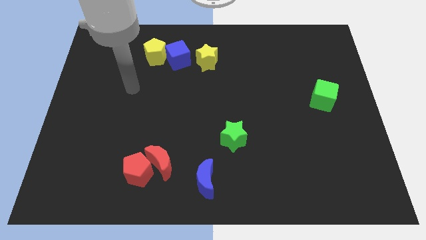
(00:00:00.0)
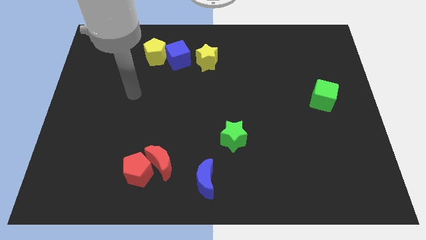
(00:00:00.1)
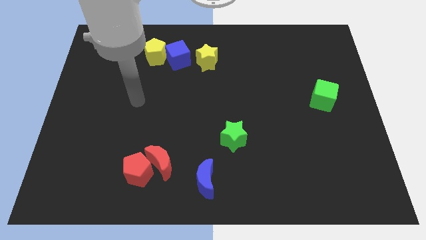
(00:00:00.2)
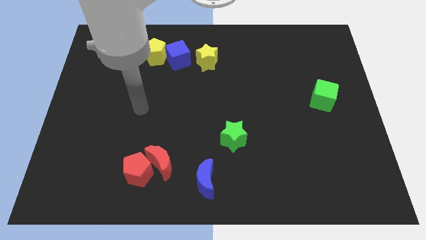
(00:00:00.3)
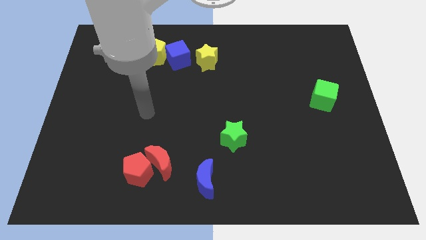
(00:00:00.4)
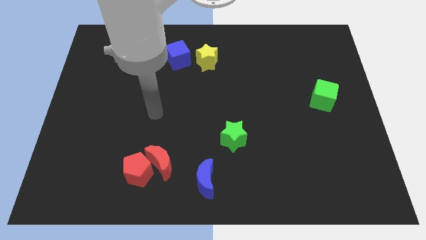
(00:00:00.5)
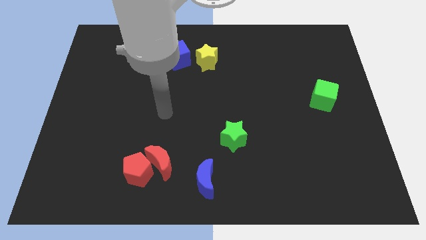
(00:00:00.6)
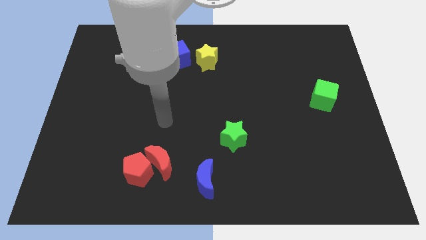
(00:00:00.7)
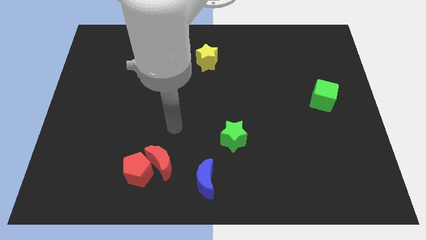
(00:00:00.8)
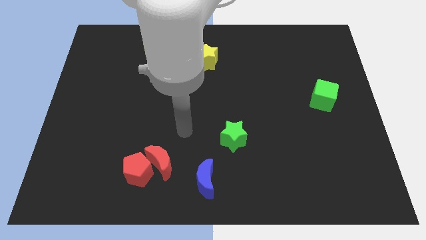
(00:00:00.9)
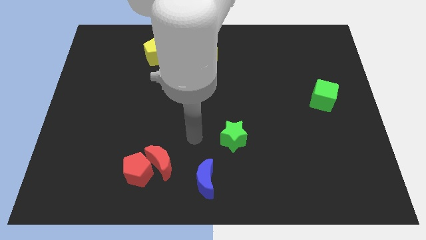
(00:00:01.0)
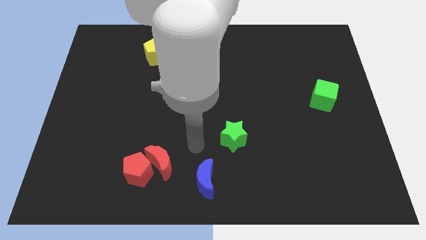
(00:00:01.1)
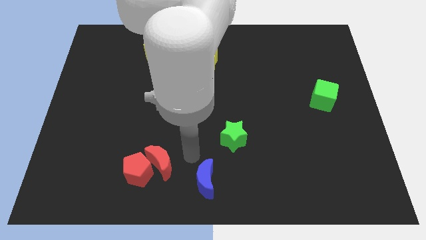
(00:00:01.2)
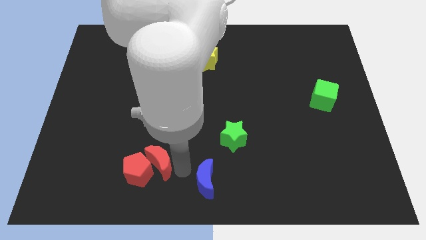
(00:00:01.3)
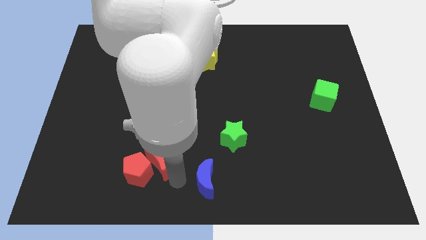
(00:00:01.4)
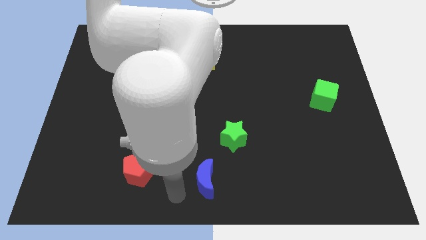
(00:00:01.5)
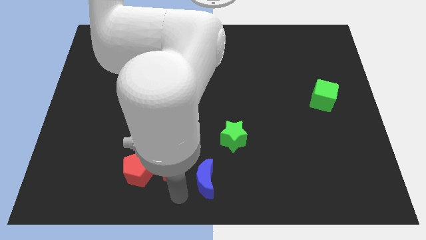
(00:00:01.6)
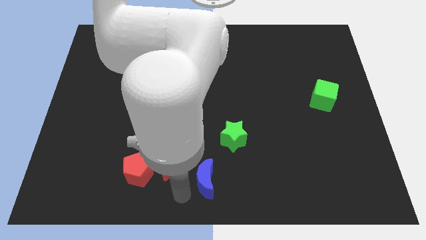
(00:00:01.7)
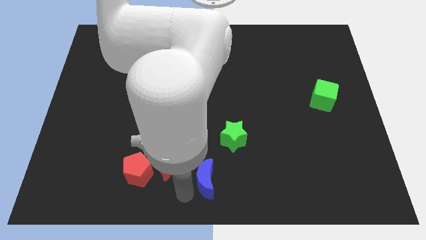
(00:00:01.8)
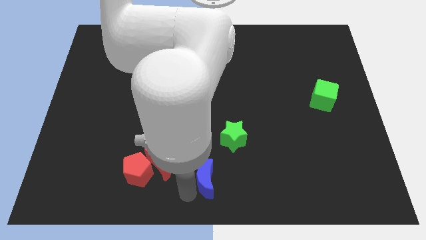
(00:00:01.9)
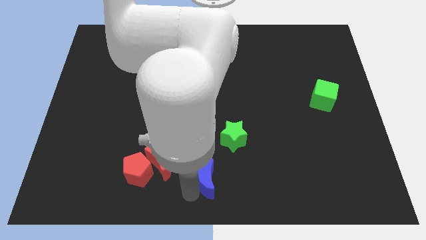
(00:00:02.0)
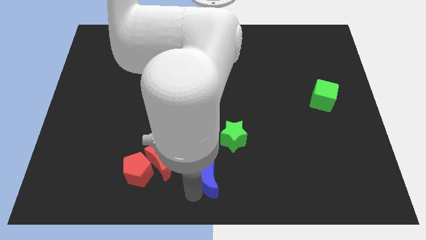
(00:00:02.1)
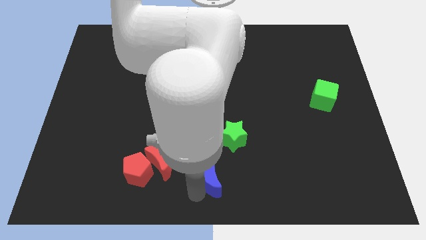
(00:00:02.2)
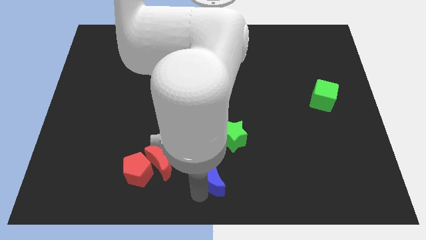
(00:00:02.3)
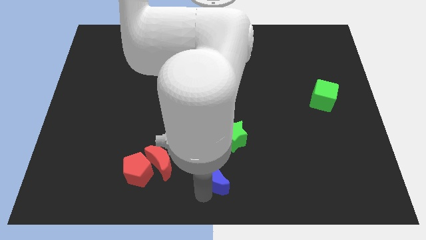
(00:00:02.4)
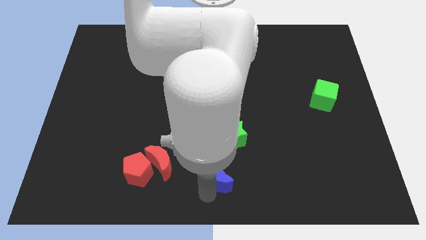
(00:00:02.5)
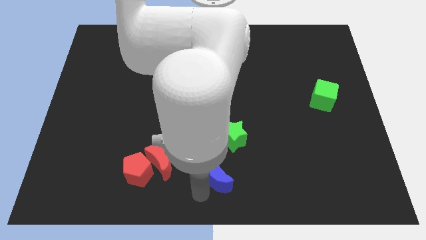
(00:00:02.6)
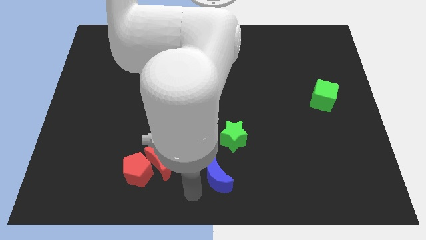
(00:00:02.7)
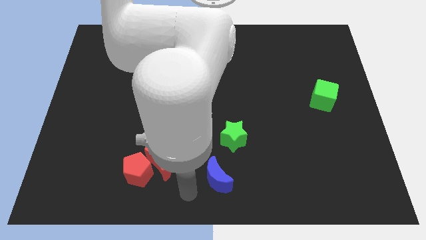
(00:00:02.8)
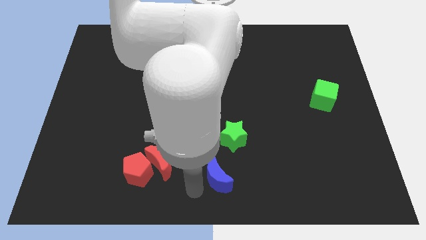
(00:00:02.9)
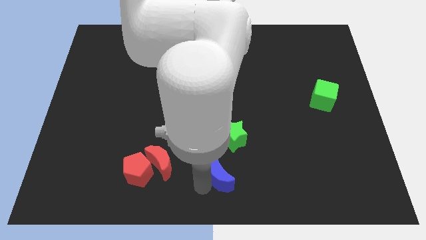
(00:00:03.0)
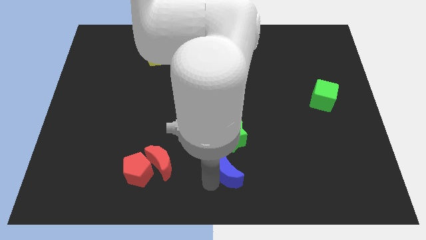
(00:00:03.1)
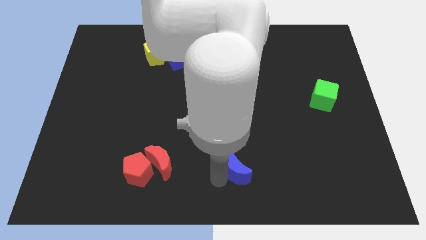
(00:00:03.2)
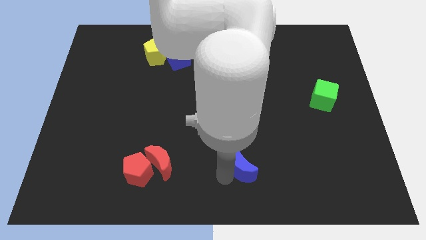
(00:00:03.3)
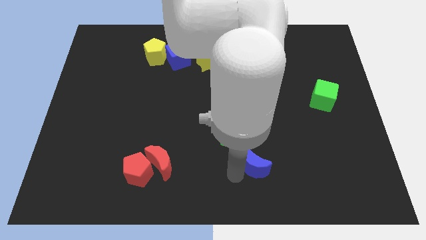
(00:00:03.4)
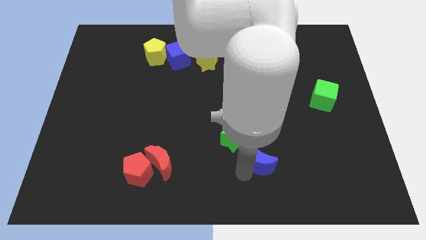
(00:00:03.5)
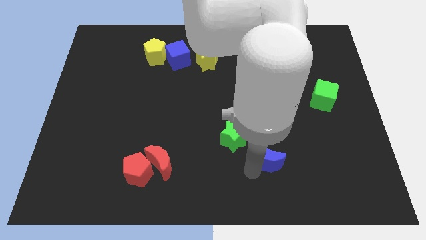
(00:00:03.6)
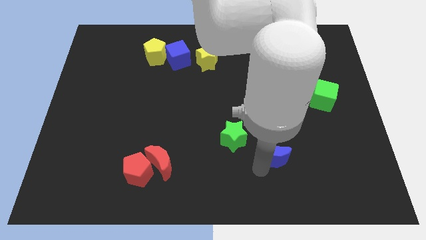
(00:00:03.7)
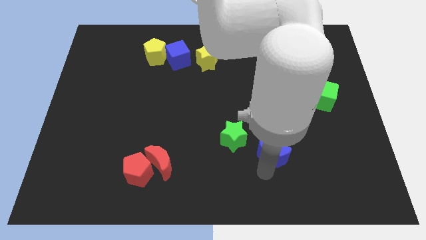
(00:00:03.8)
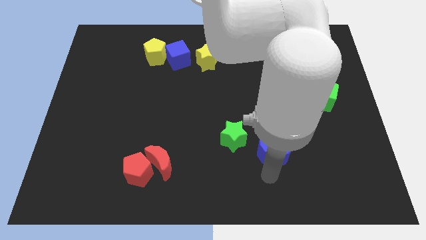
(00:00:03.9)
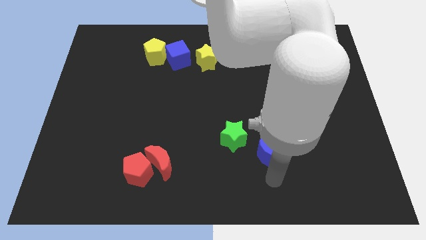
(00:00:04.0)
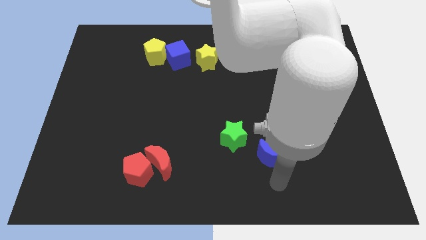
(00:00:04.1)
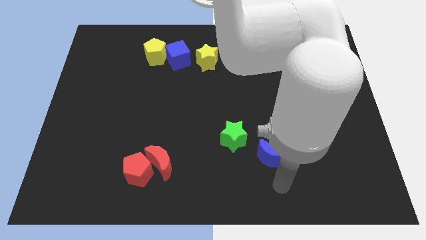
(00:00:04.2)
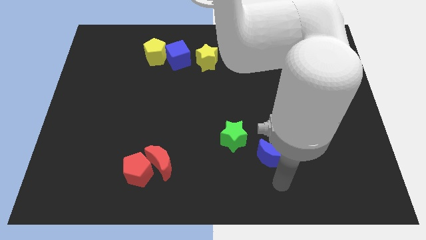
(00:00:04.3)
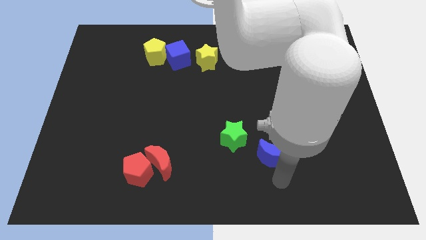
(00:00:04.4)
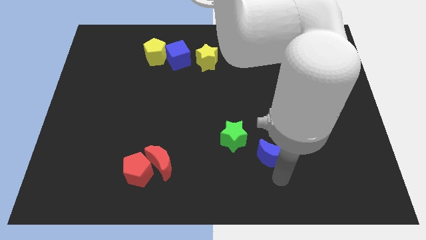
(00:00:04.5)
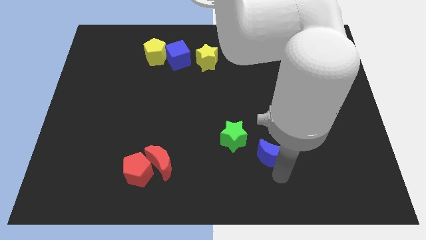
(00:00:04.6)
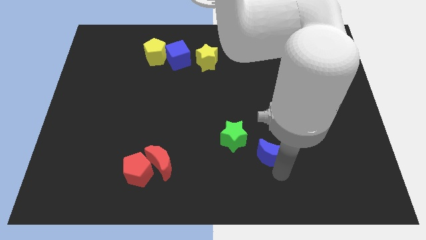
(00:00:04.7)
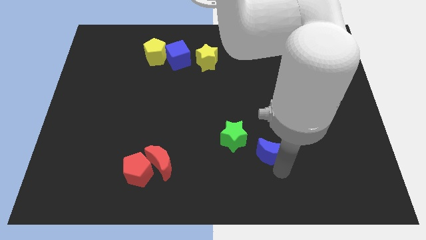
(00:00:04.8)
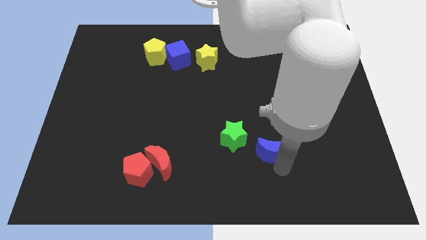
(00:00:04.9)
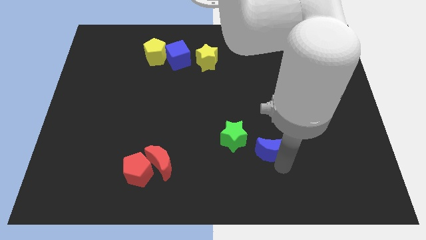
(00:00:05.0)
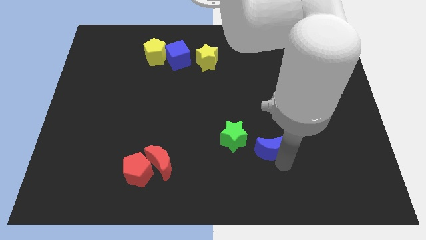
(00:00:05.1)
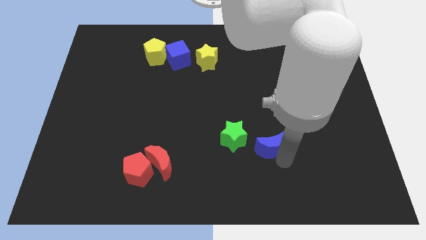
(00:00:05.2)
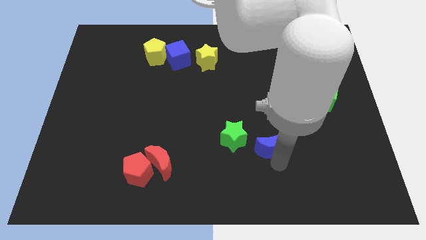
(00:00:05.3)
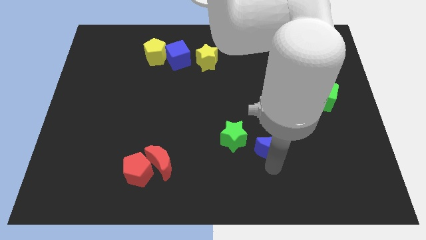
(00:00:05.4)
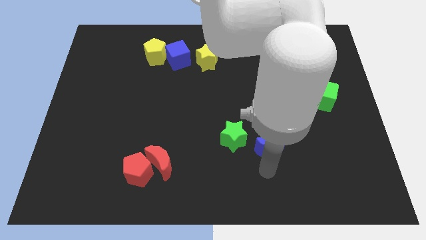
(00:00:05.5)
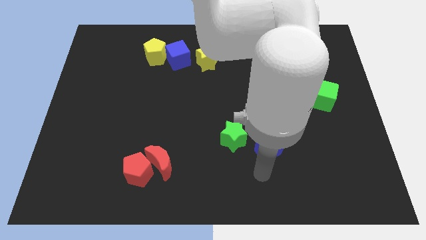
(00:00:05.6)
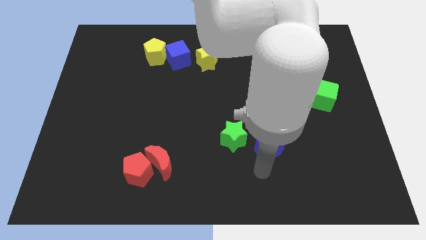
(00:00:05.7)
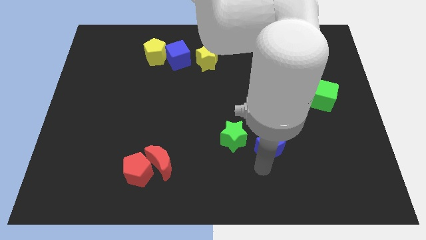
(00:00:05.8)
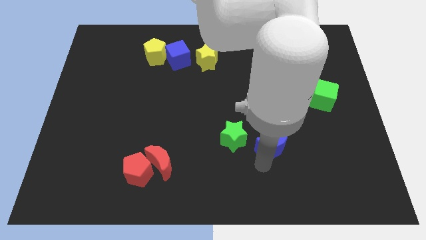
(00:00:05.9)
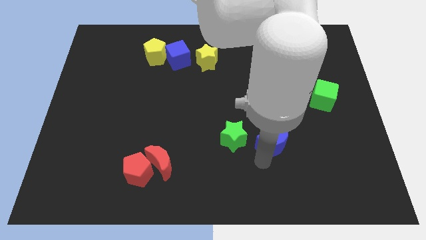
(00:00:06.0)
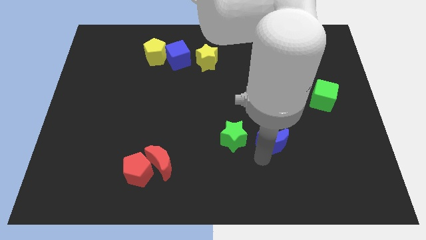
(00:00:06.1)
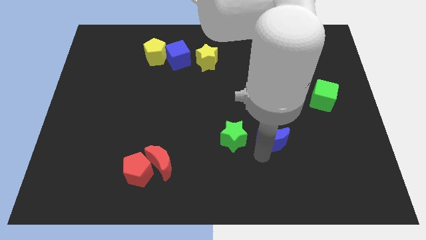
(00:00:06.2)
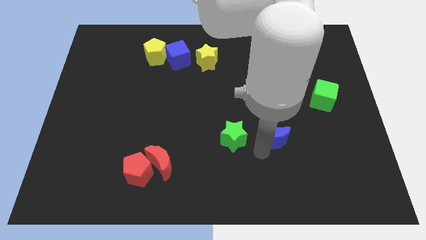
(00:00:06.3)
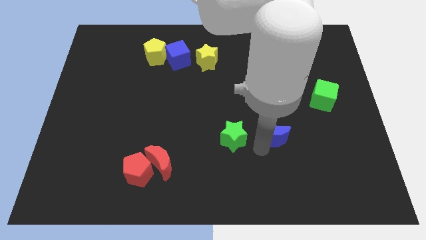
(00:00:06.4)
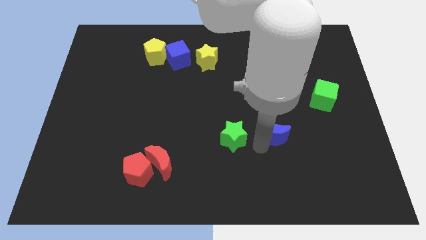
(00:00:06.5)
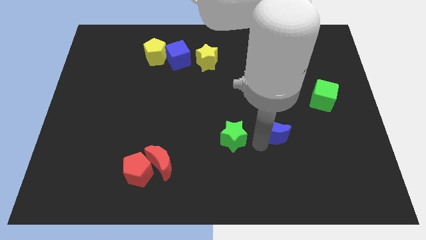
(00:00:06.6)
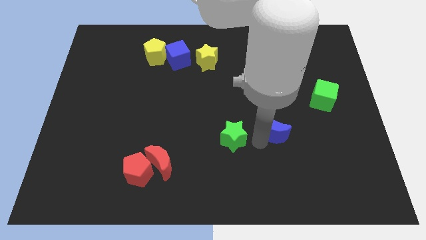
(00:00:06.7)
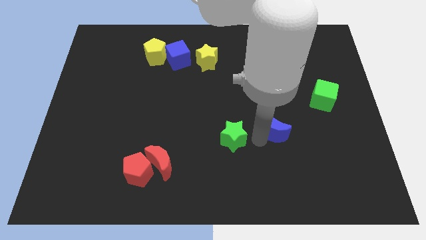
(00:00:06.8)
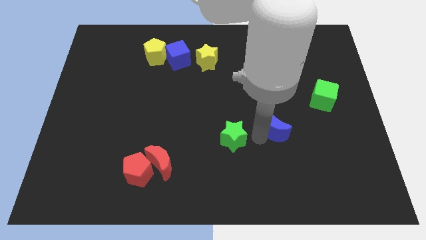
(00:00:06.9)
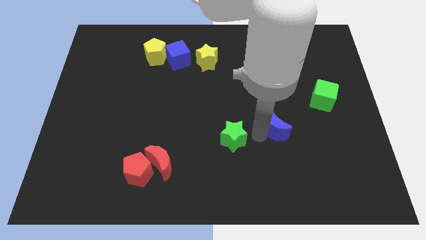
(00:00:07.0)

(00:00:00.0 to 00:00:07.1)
push the blue moon diagonally upwards and right

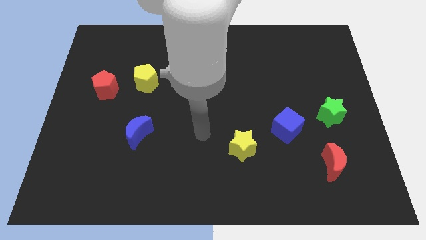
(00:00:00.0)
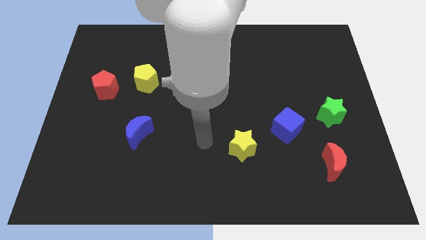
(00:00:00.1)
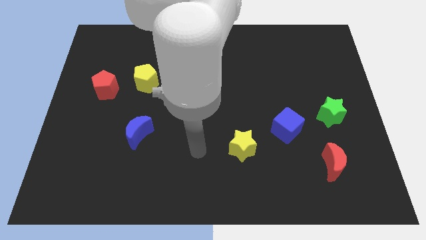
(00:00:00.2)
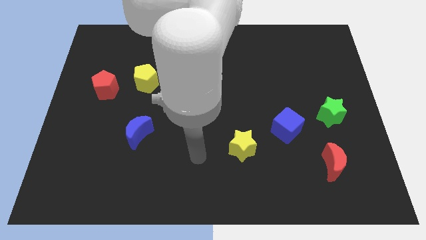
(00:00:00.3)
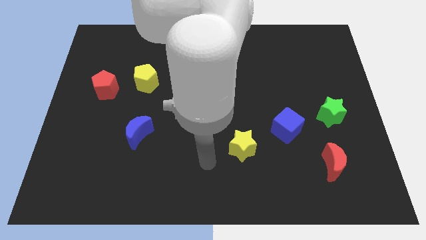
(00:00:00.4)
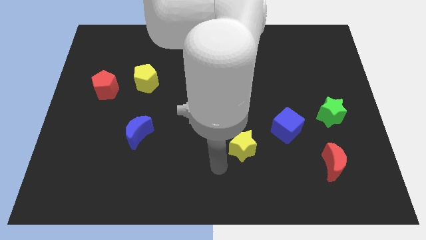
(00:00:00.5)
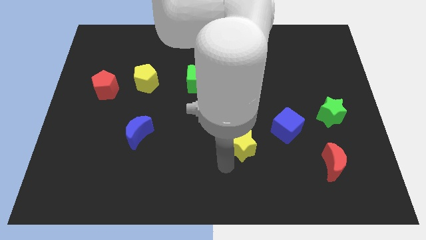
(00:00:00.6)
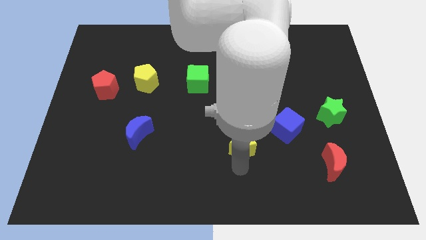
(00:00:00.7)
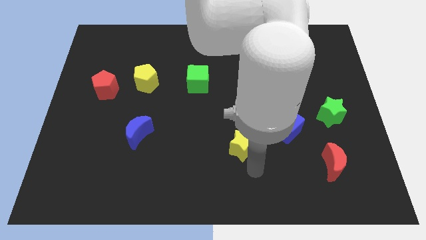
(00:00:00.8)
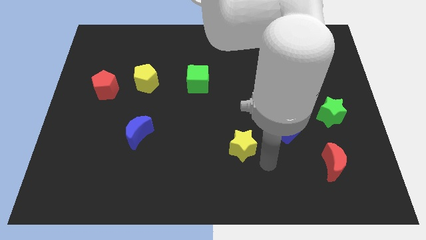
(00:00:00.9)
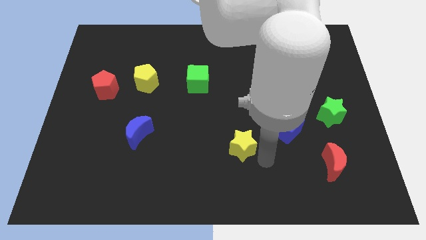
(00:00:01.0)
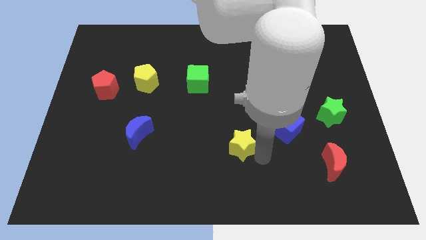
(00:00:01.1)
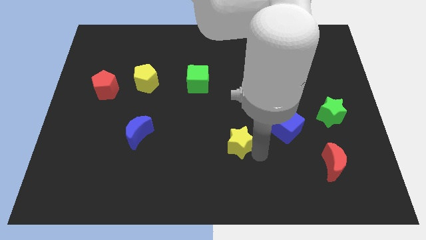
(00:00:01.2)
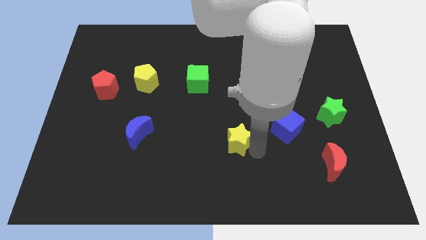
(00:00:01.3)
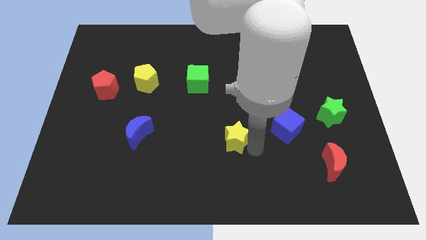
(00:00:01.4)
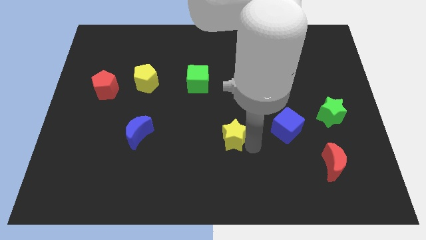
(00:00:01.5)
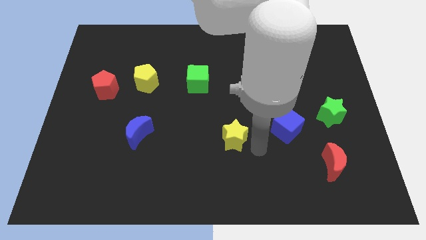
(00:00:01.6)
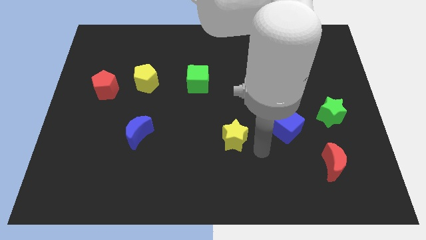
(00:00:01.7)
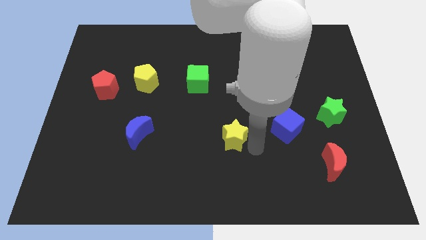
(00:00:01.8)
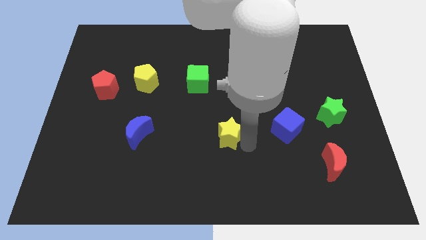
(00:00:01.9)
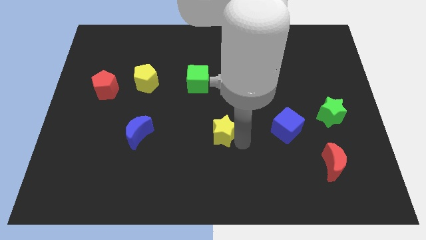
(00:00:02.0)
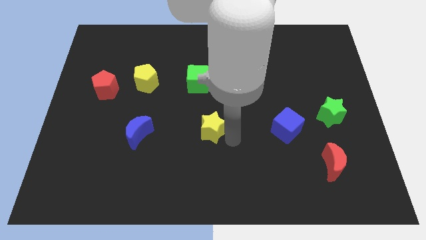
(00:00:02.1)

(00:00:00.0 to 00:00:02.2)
slightly move the yellow star diagonally up and to the left
